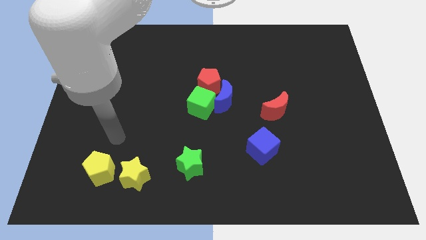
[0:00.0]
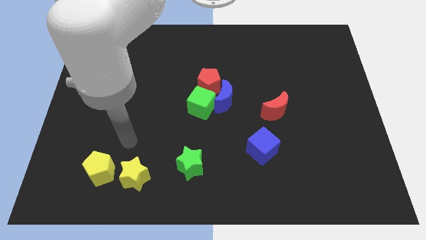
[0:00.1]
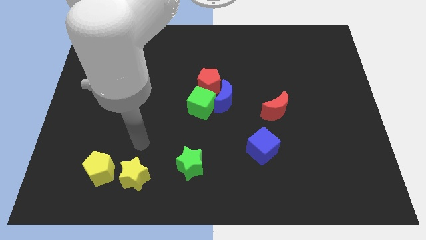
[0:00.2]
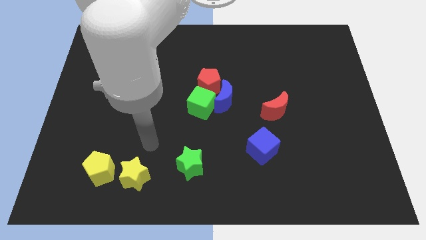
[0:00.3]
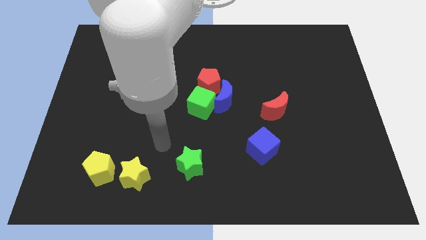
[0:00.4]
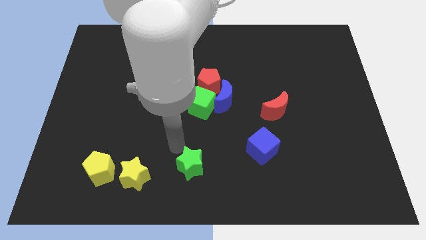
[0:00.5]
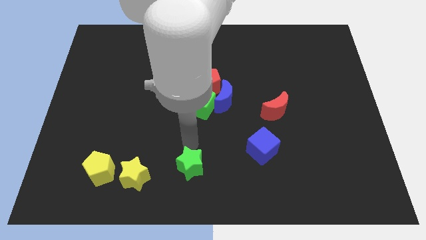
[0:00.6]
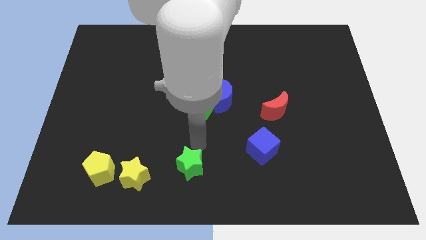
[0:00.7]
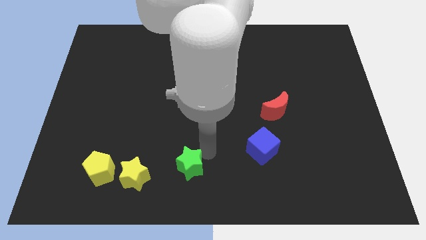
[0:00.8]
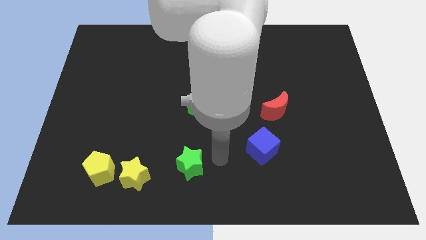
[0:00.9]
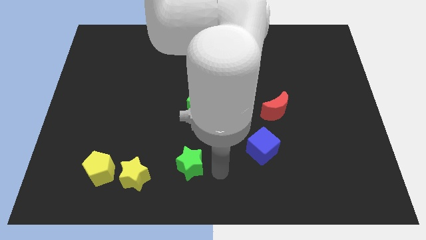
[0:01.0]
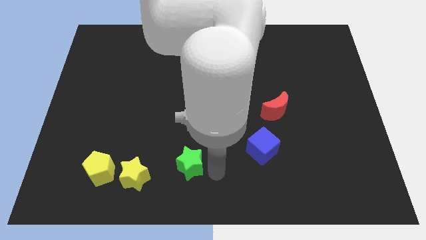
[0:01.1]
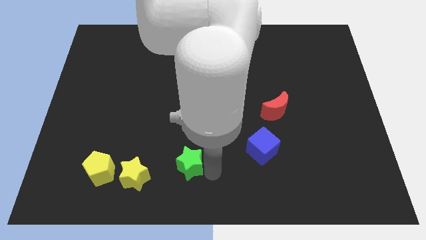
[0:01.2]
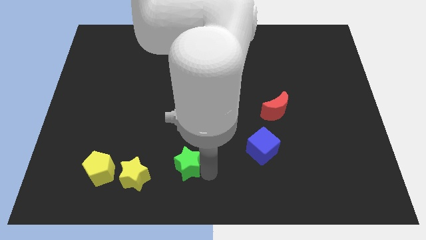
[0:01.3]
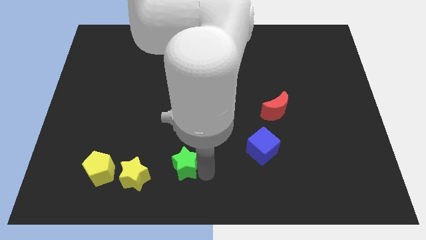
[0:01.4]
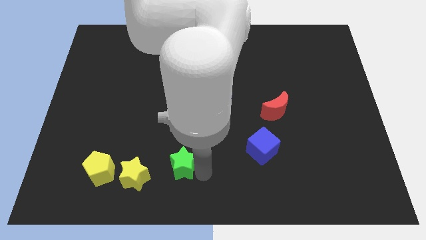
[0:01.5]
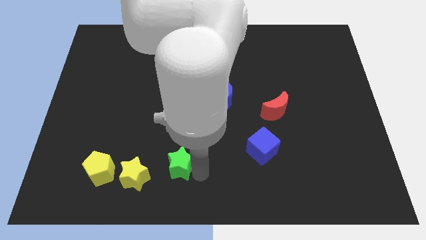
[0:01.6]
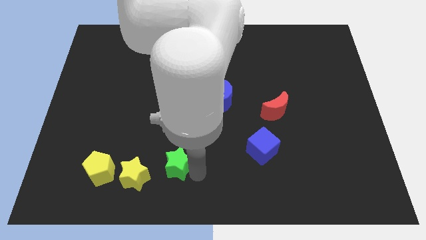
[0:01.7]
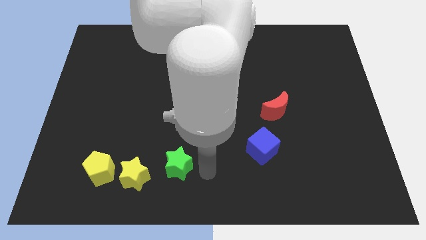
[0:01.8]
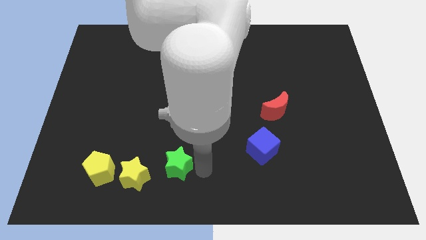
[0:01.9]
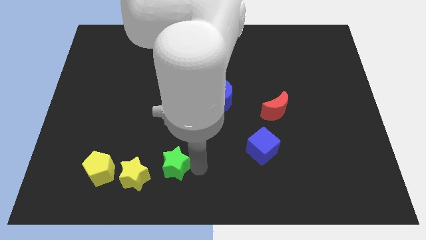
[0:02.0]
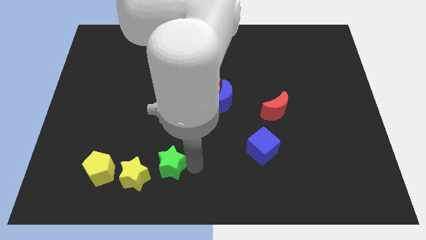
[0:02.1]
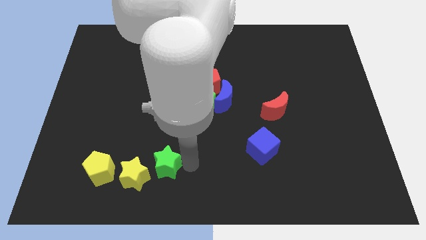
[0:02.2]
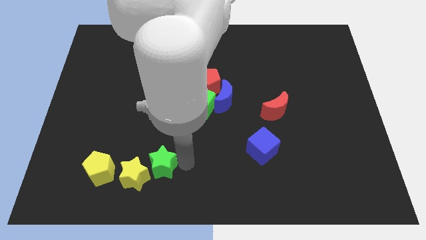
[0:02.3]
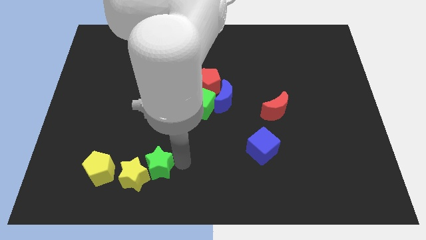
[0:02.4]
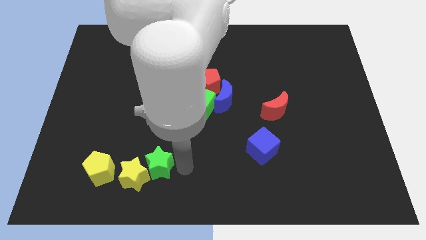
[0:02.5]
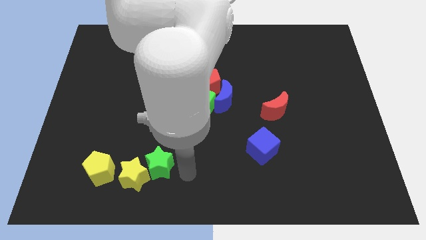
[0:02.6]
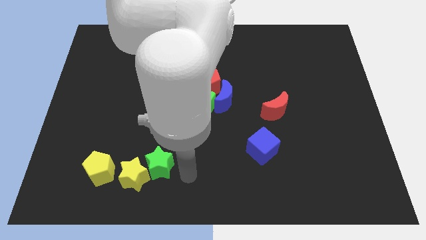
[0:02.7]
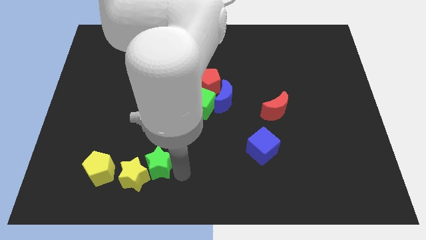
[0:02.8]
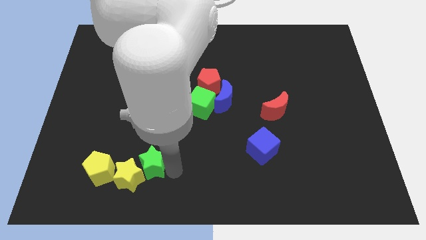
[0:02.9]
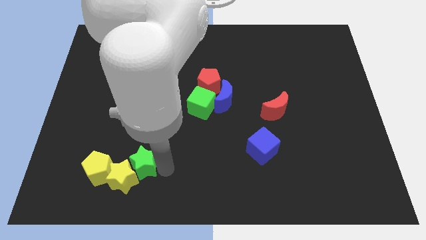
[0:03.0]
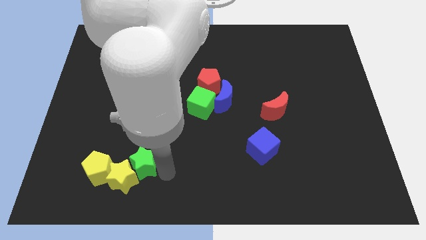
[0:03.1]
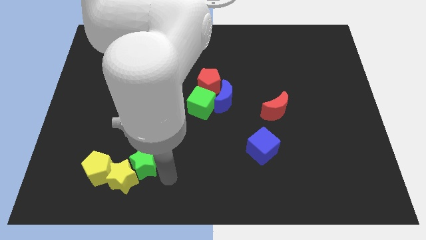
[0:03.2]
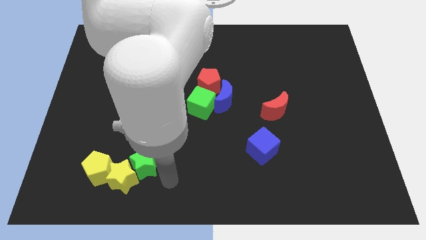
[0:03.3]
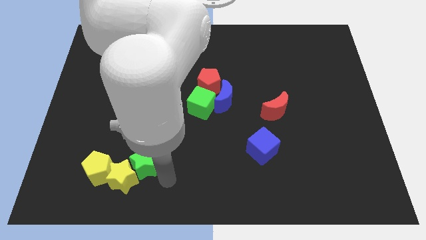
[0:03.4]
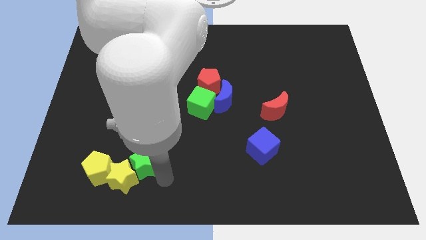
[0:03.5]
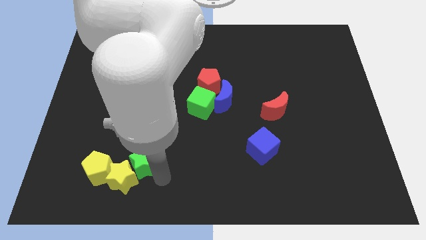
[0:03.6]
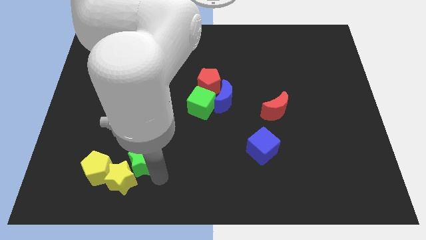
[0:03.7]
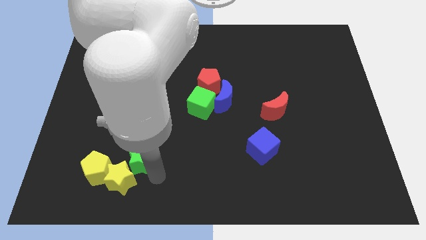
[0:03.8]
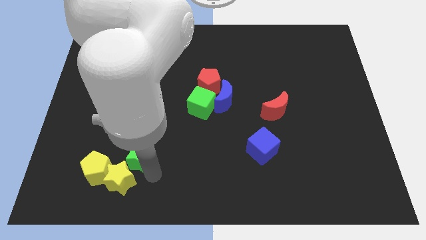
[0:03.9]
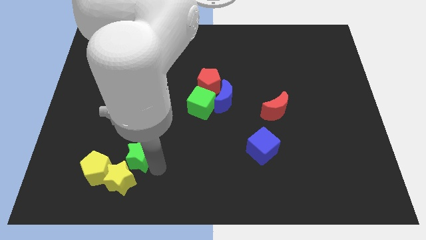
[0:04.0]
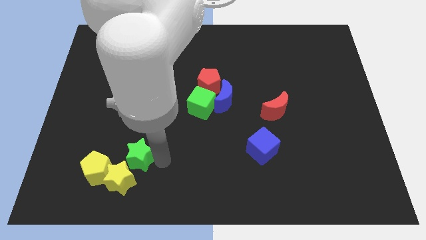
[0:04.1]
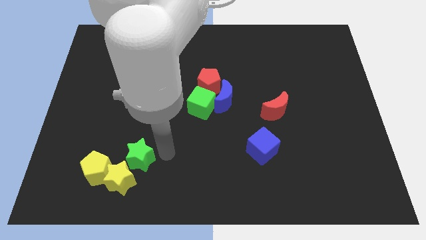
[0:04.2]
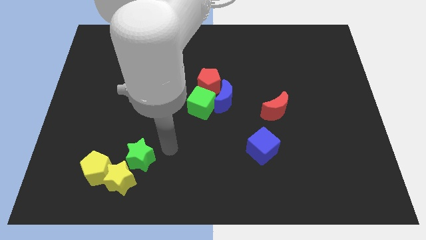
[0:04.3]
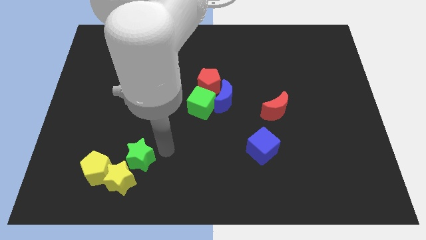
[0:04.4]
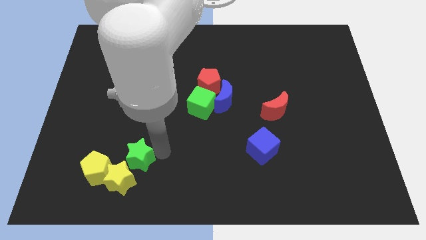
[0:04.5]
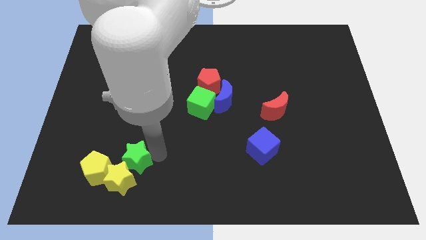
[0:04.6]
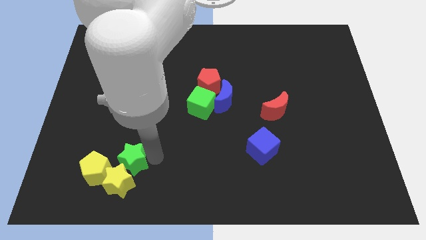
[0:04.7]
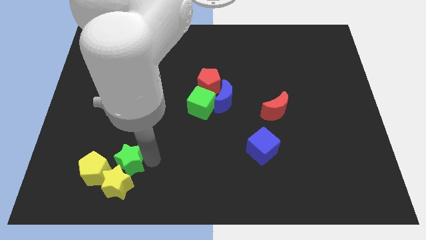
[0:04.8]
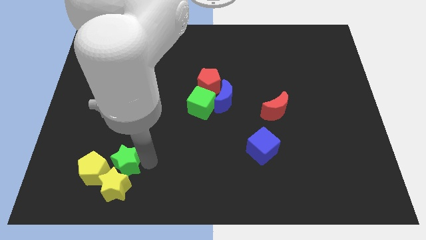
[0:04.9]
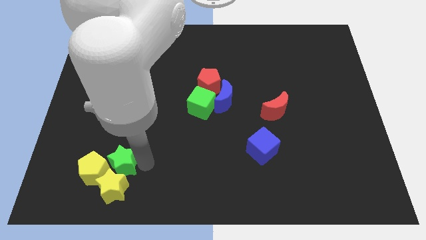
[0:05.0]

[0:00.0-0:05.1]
put the green star to the yellow pentagon

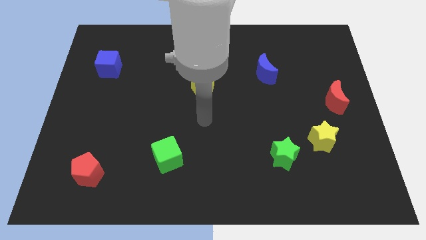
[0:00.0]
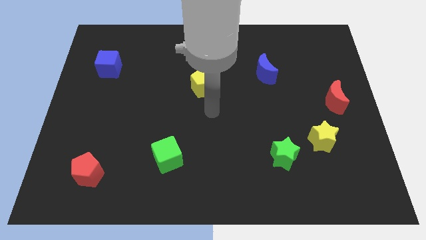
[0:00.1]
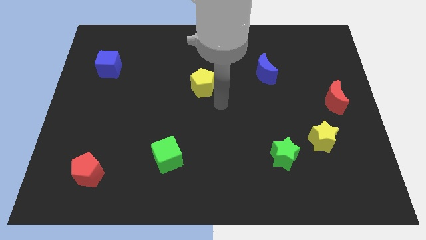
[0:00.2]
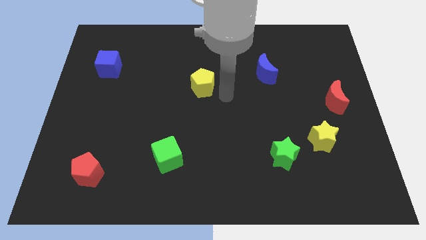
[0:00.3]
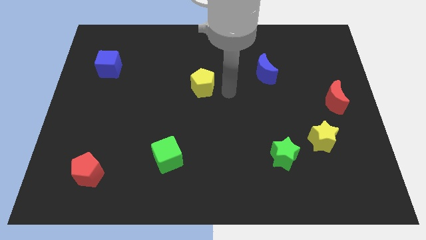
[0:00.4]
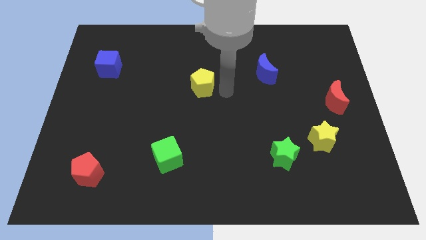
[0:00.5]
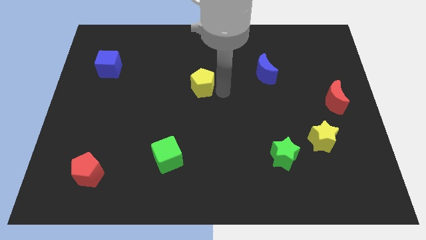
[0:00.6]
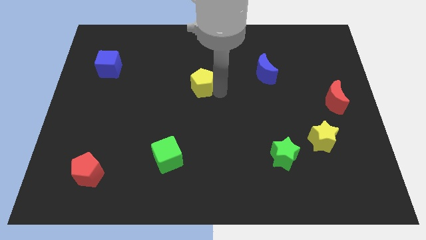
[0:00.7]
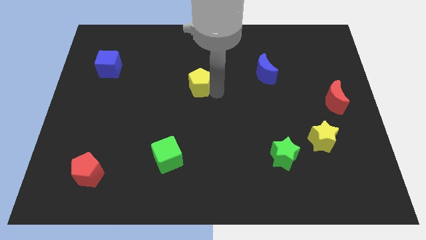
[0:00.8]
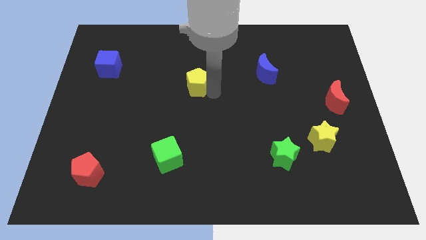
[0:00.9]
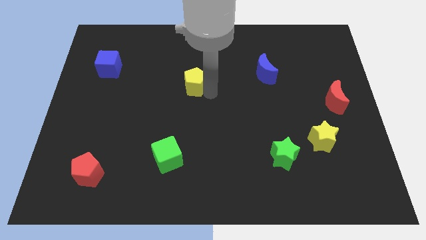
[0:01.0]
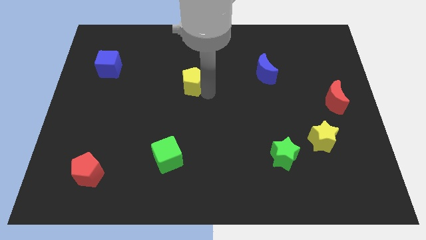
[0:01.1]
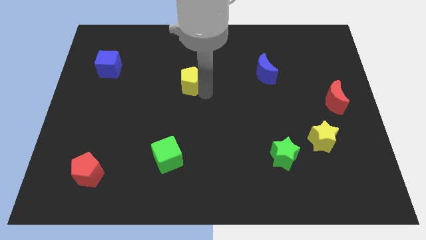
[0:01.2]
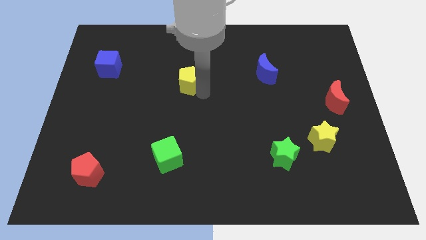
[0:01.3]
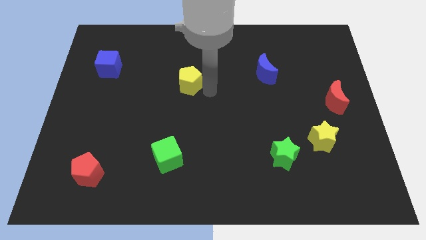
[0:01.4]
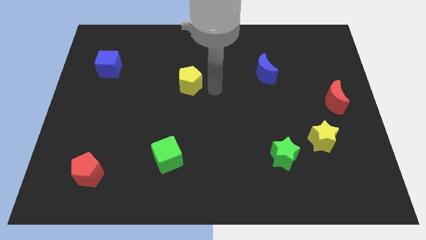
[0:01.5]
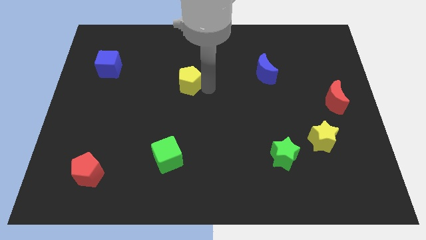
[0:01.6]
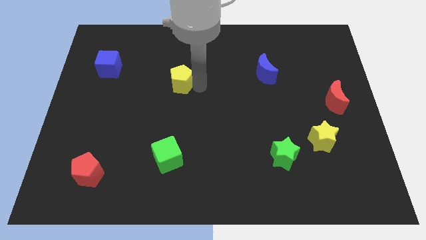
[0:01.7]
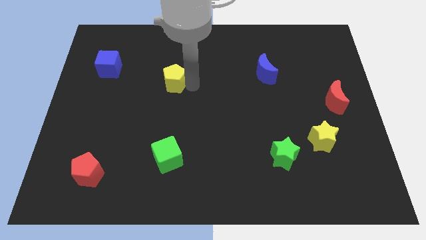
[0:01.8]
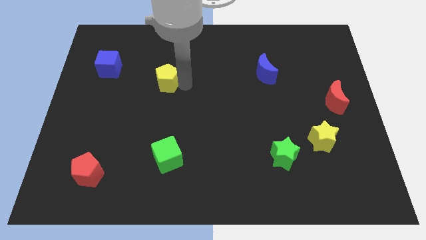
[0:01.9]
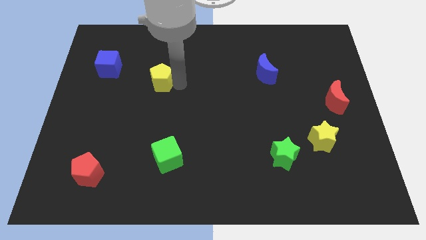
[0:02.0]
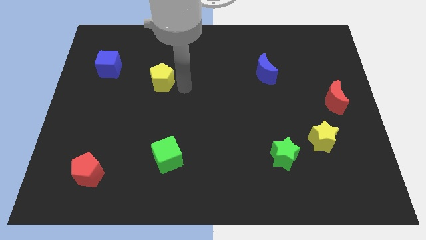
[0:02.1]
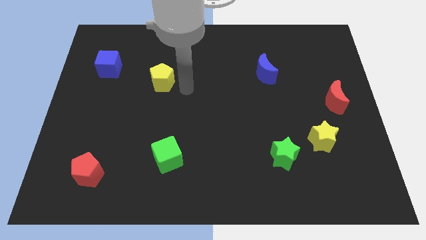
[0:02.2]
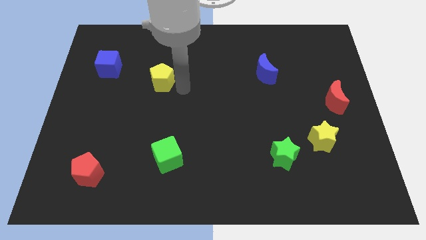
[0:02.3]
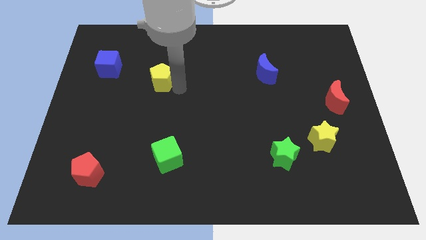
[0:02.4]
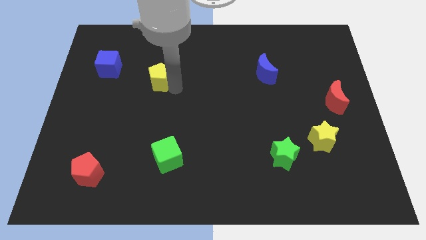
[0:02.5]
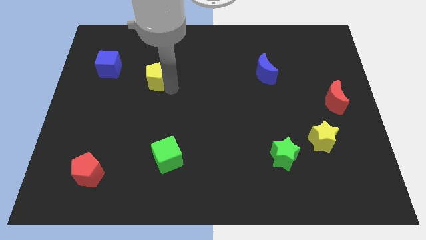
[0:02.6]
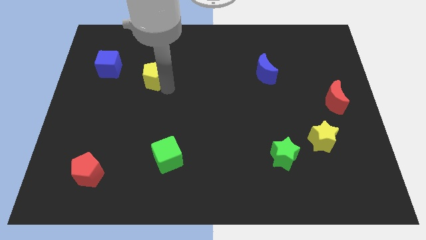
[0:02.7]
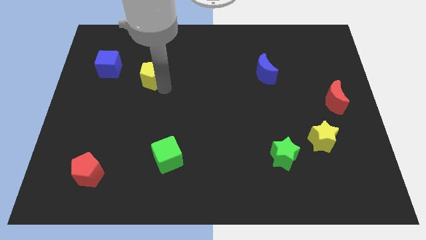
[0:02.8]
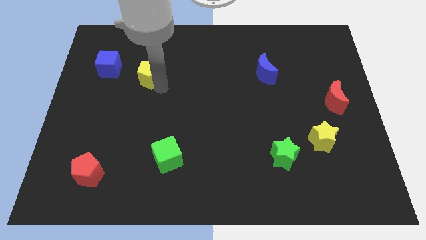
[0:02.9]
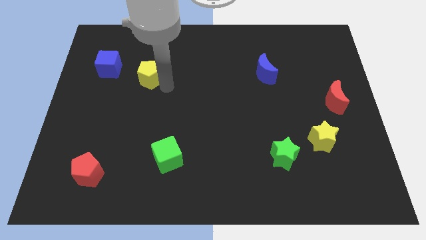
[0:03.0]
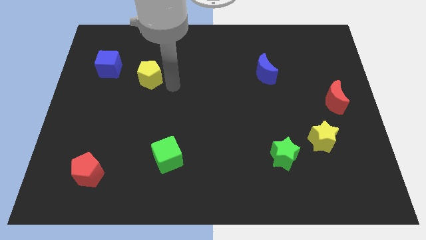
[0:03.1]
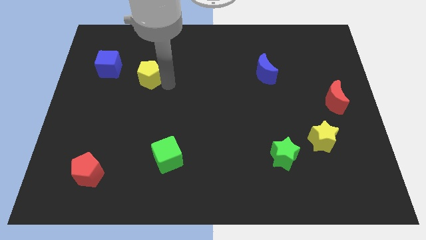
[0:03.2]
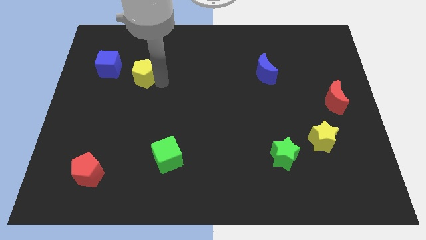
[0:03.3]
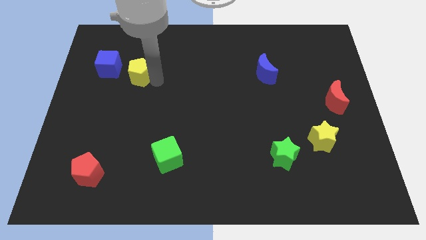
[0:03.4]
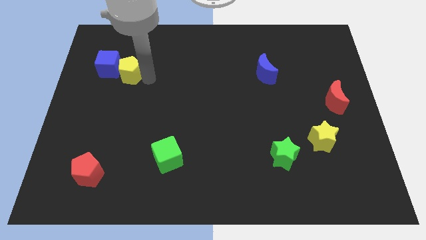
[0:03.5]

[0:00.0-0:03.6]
slide the yellow pentagon to the blue cube
